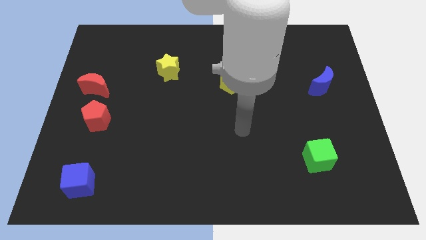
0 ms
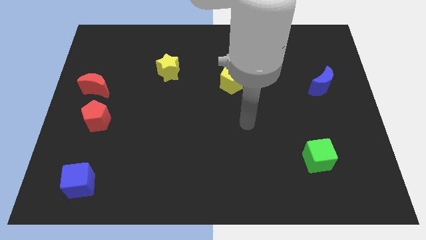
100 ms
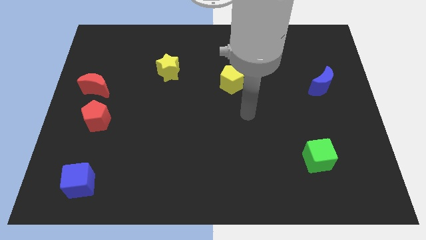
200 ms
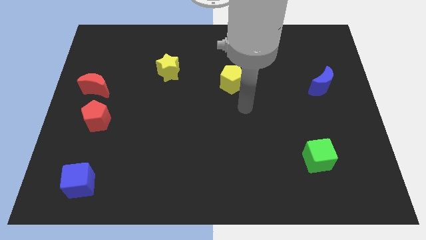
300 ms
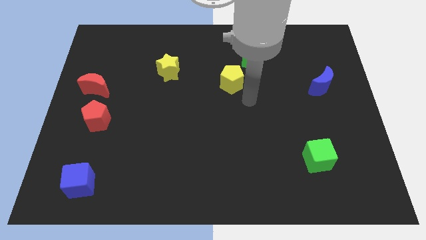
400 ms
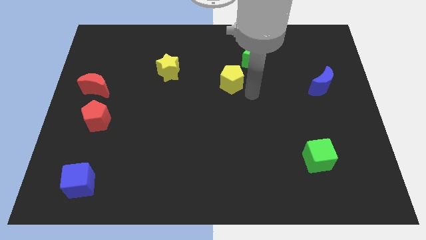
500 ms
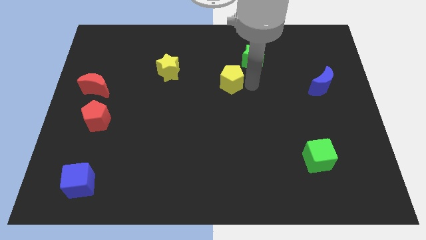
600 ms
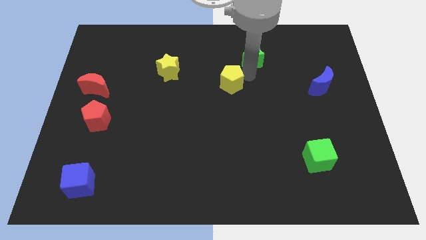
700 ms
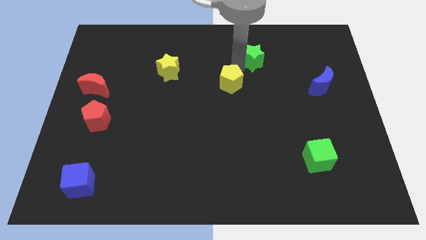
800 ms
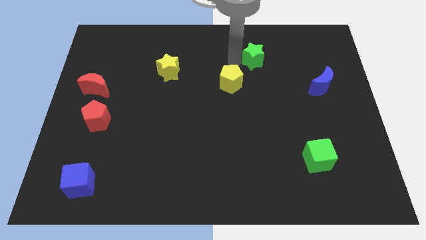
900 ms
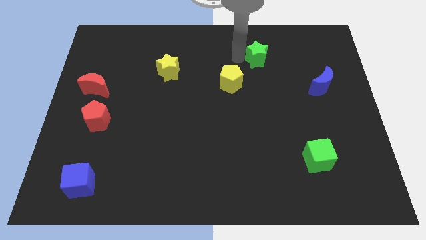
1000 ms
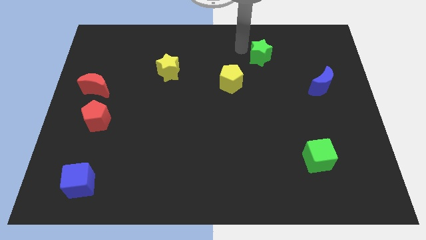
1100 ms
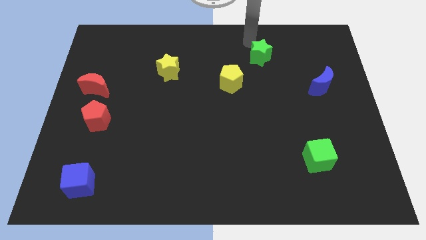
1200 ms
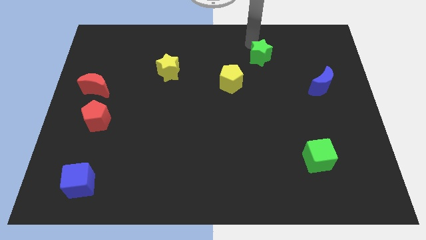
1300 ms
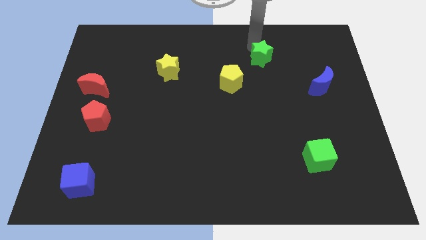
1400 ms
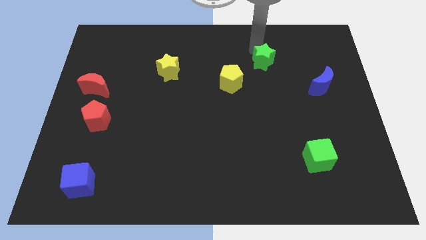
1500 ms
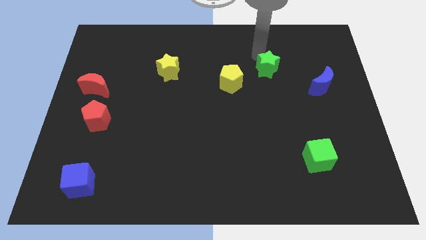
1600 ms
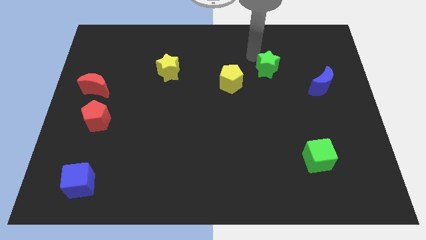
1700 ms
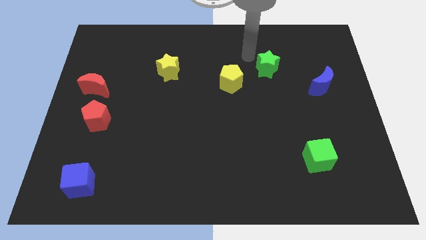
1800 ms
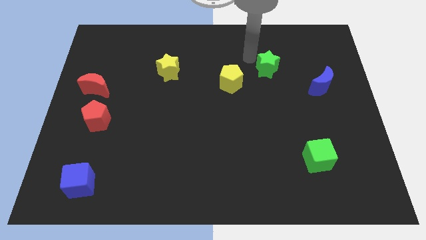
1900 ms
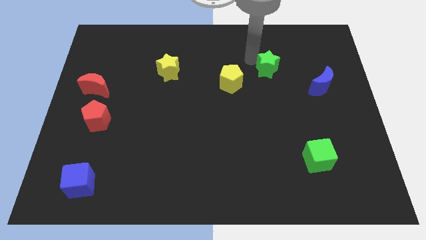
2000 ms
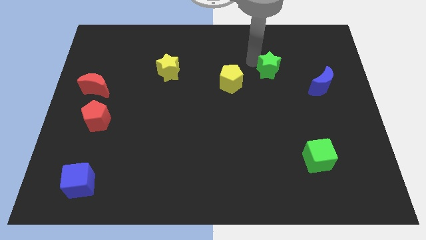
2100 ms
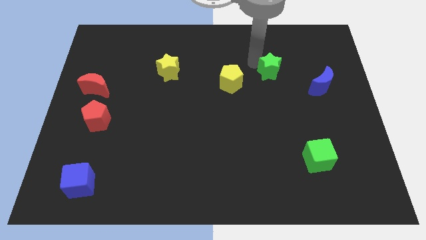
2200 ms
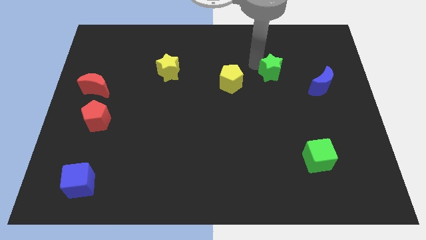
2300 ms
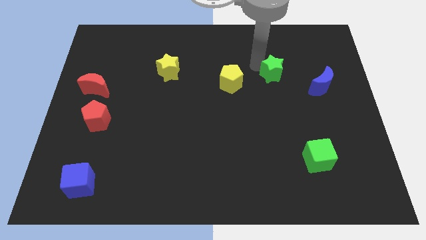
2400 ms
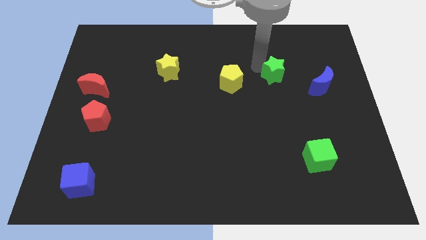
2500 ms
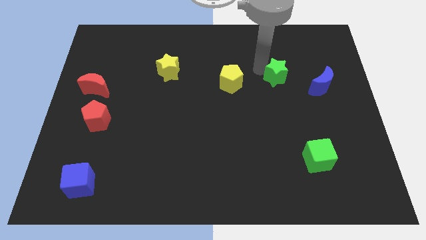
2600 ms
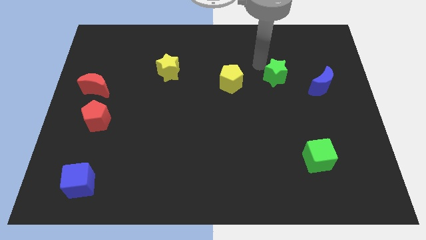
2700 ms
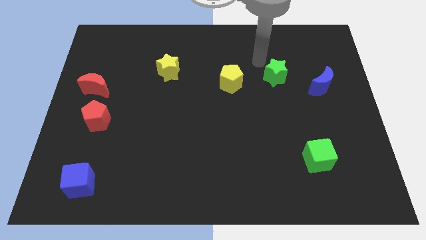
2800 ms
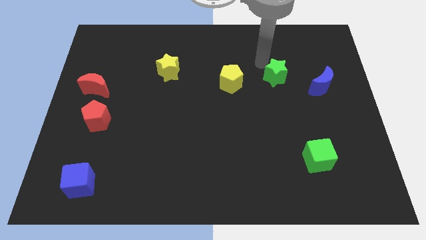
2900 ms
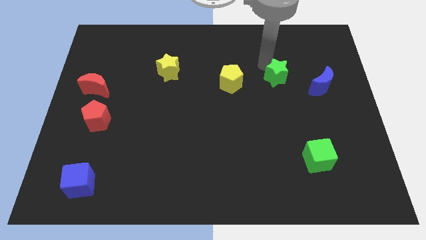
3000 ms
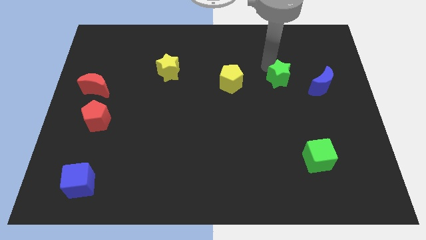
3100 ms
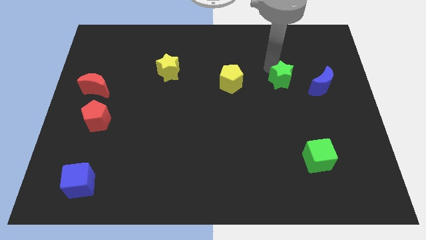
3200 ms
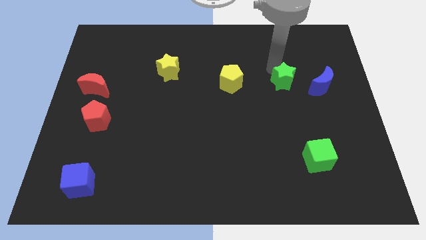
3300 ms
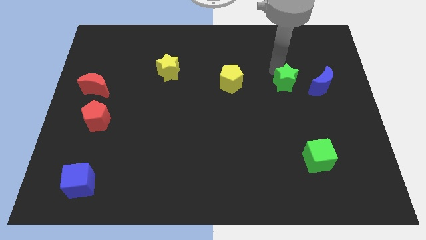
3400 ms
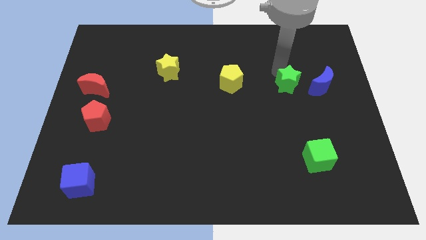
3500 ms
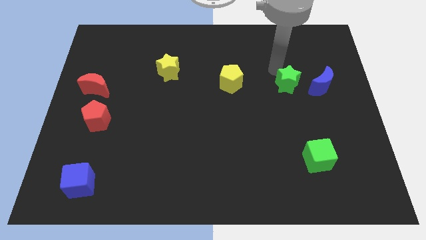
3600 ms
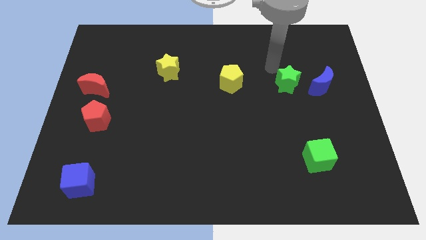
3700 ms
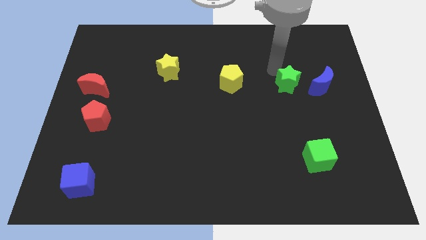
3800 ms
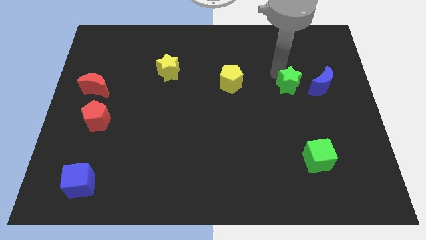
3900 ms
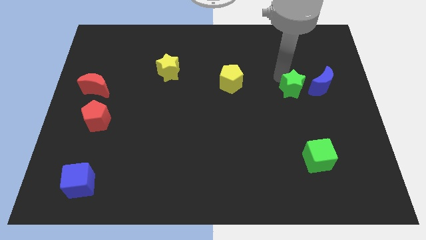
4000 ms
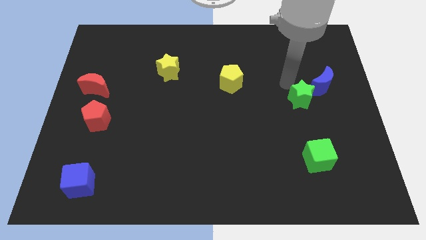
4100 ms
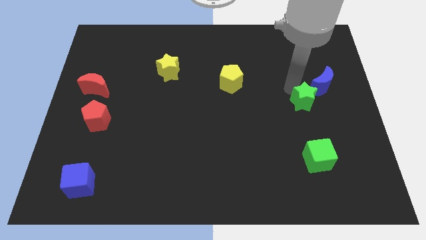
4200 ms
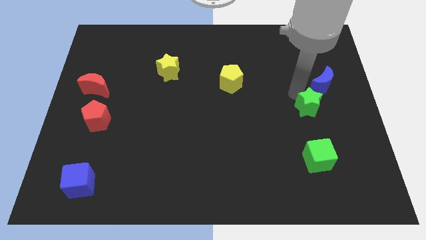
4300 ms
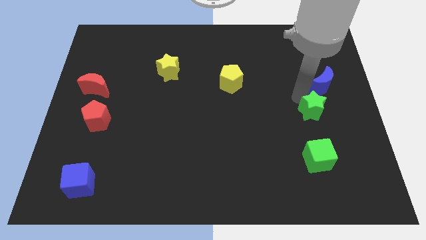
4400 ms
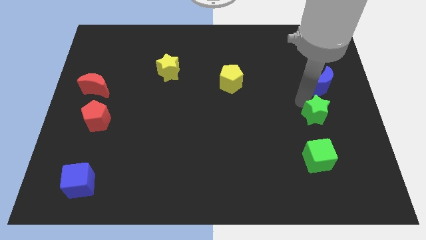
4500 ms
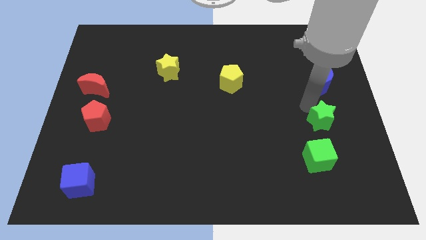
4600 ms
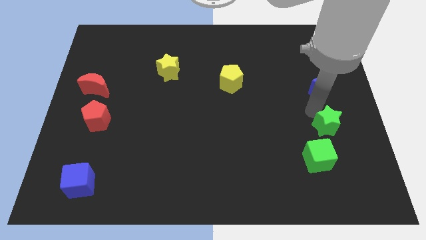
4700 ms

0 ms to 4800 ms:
move the green star to the top right side of the green cube

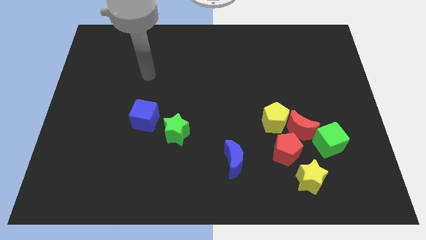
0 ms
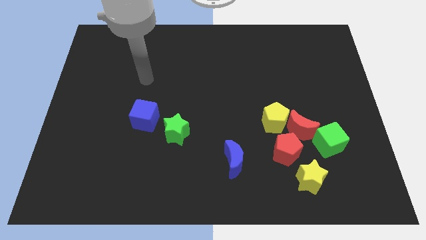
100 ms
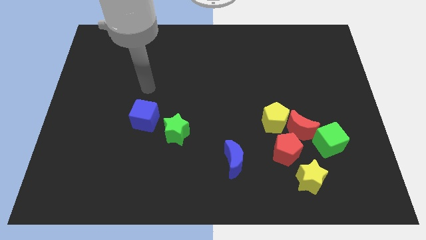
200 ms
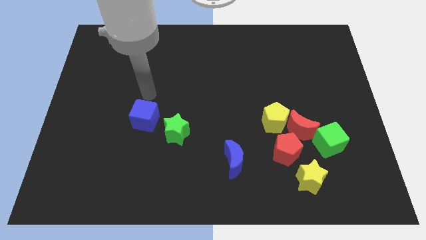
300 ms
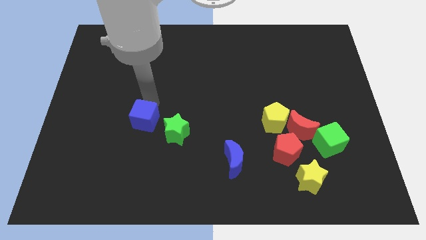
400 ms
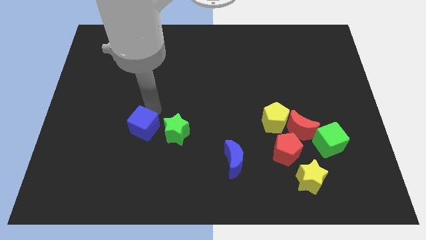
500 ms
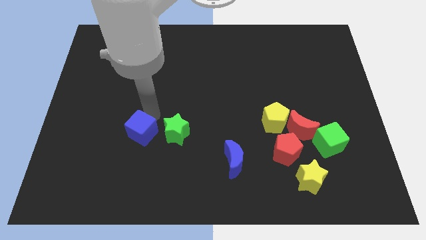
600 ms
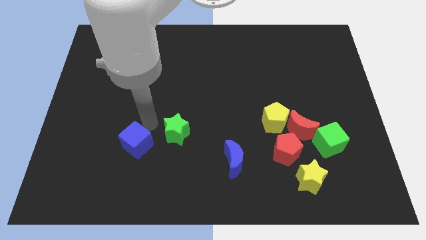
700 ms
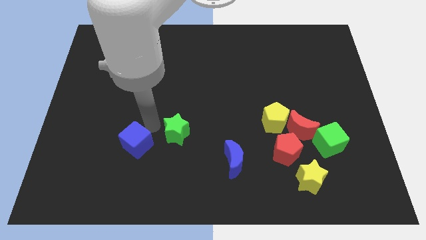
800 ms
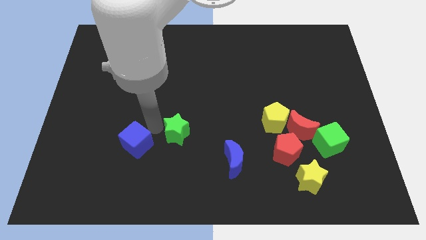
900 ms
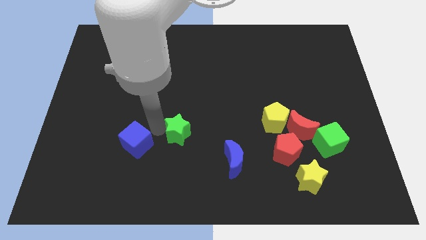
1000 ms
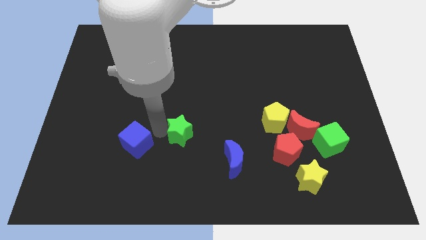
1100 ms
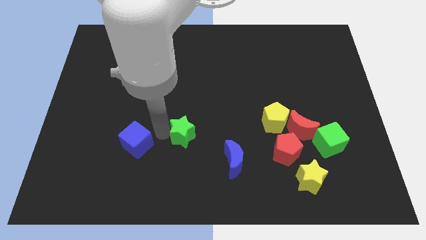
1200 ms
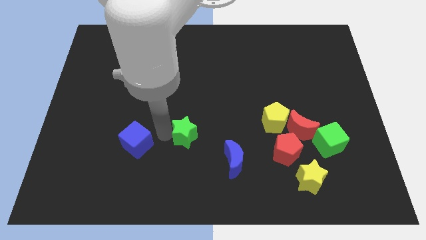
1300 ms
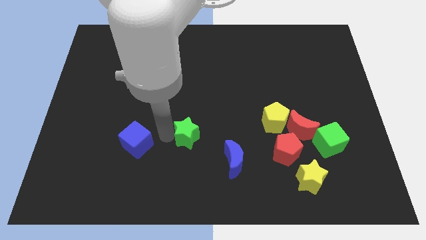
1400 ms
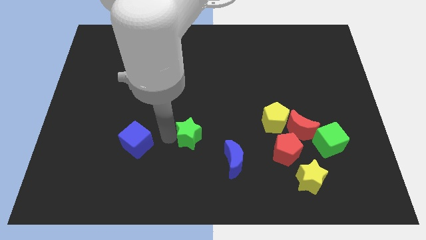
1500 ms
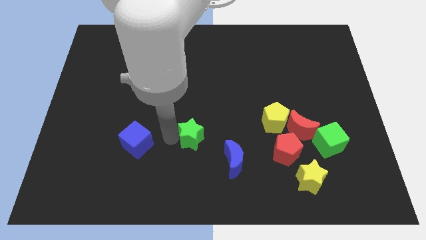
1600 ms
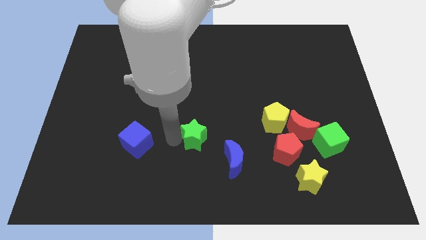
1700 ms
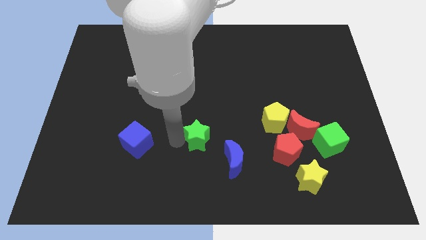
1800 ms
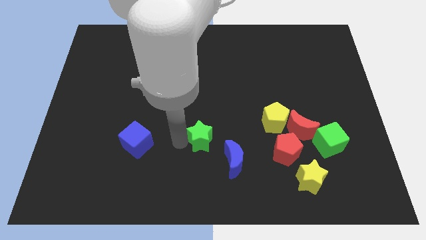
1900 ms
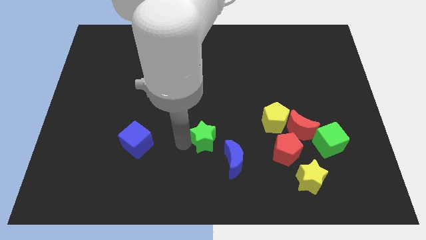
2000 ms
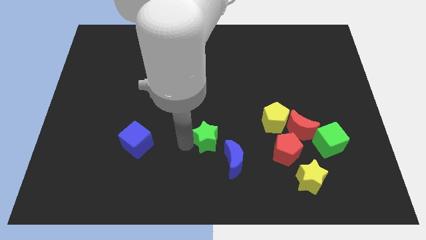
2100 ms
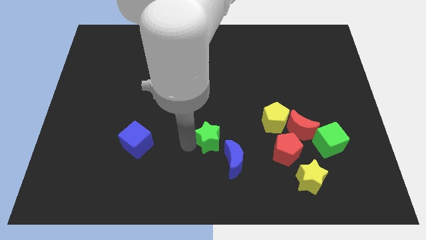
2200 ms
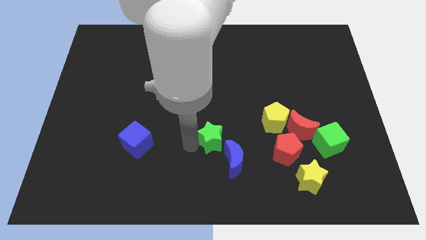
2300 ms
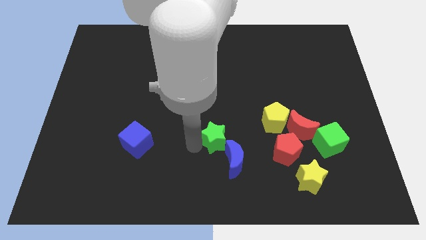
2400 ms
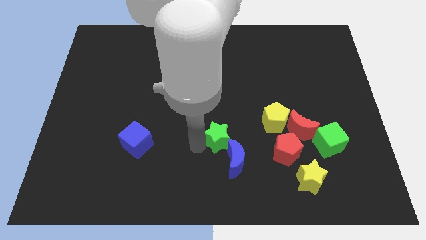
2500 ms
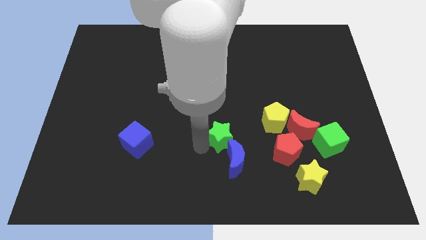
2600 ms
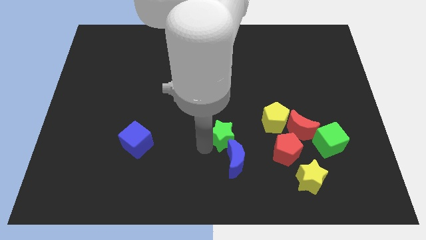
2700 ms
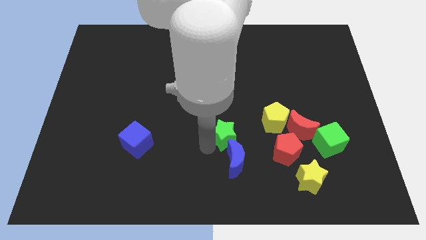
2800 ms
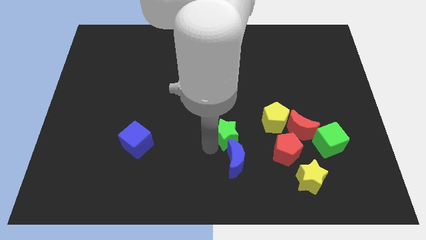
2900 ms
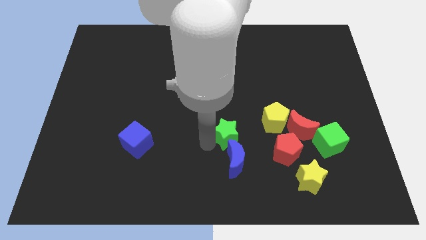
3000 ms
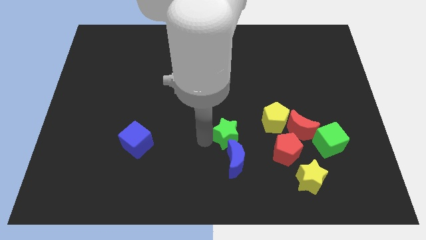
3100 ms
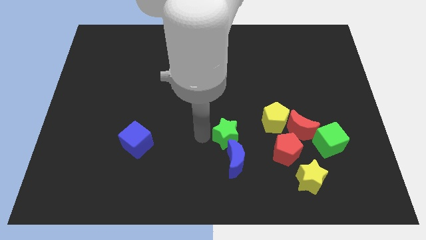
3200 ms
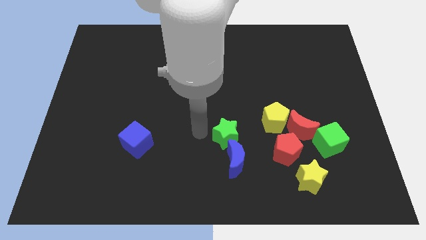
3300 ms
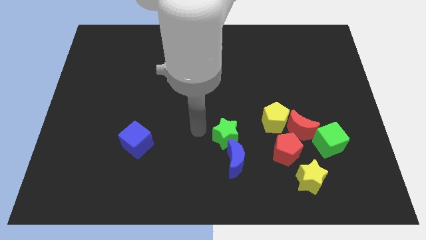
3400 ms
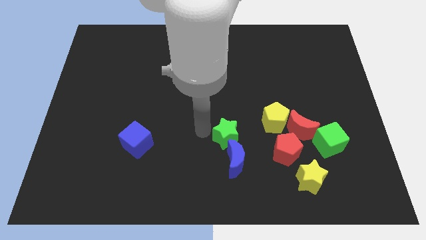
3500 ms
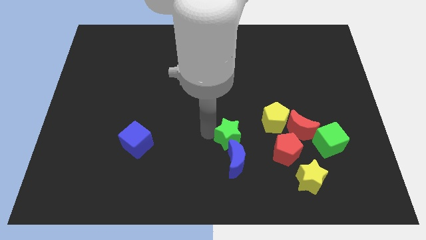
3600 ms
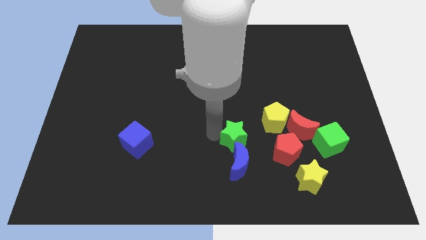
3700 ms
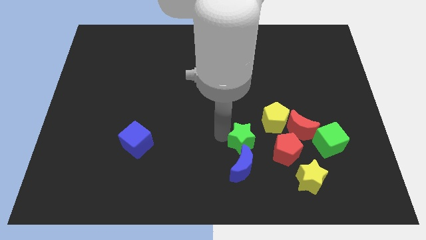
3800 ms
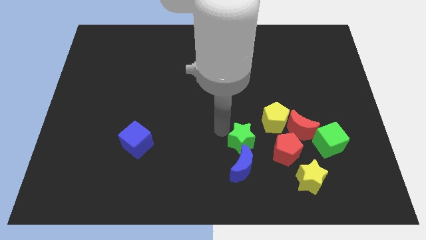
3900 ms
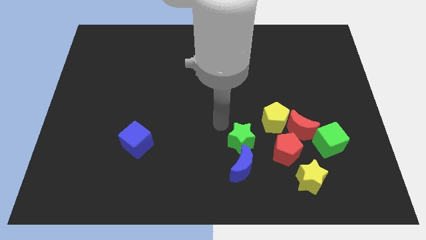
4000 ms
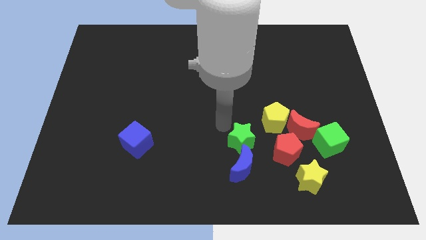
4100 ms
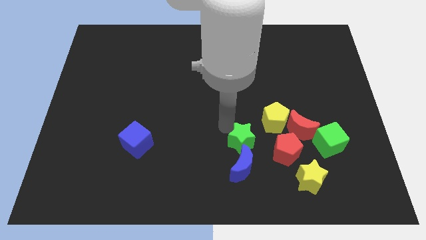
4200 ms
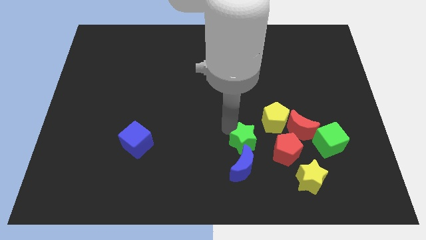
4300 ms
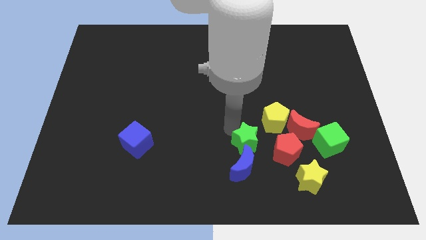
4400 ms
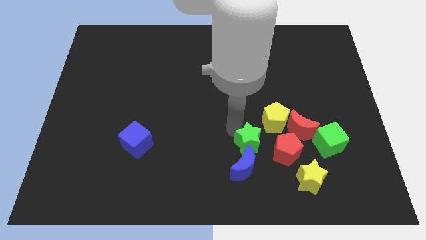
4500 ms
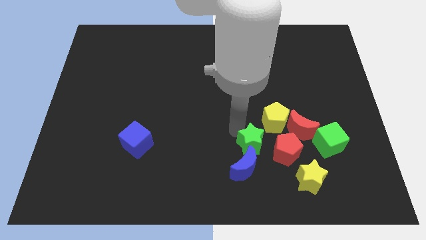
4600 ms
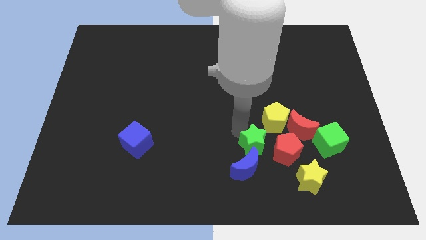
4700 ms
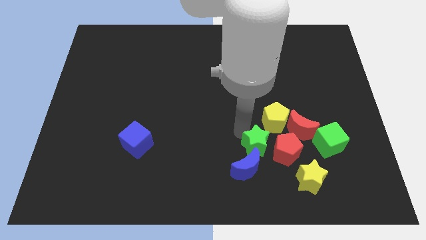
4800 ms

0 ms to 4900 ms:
move the green star to the bottom left side of the red moon
